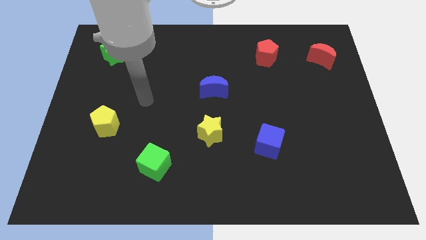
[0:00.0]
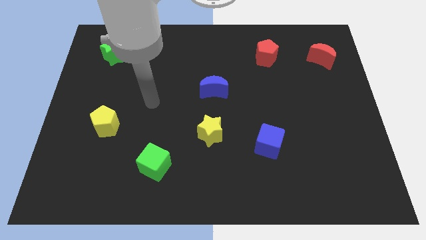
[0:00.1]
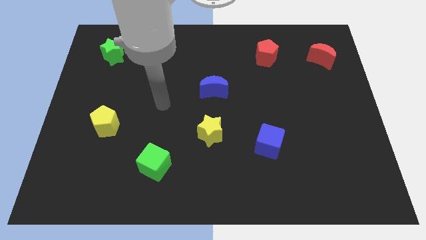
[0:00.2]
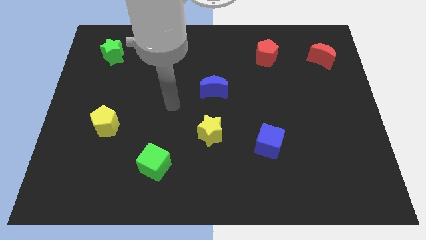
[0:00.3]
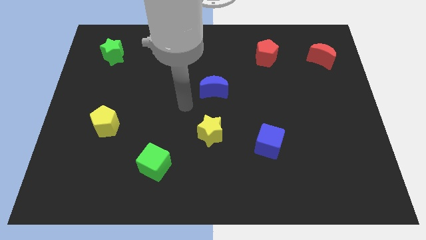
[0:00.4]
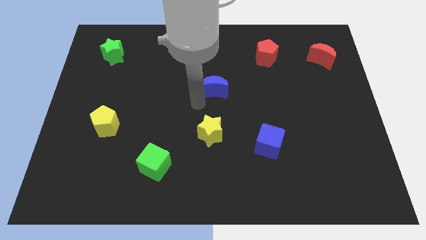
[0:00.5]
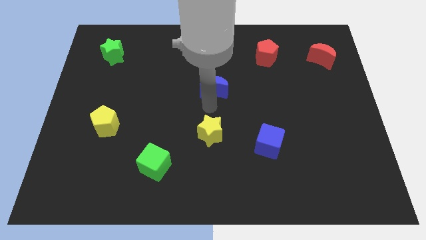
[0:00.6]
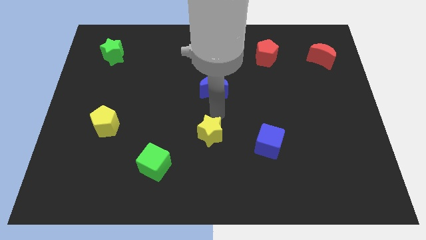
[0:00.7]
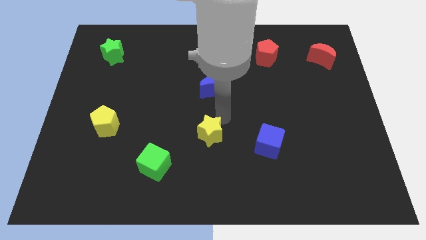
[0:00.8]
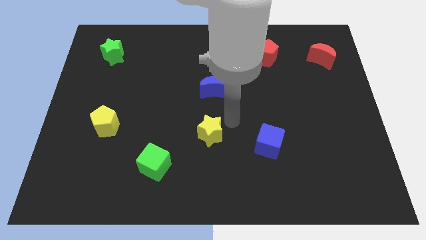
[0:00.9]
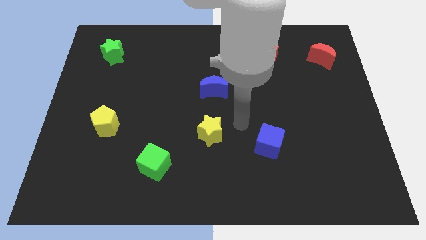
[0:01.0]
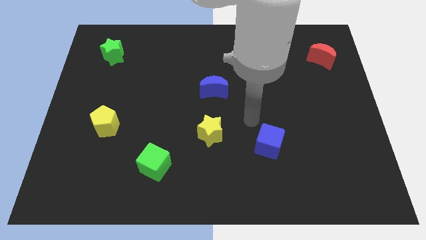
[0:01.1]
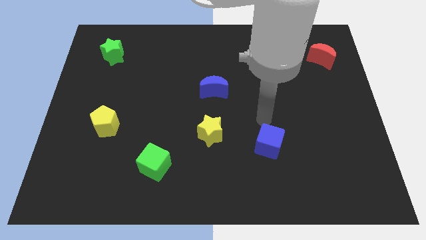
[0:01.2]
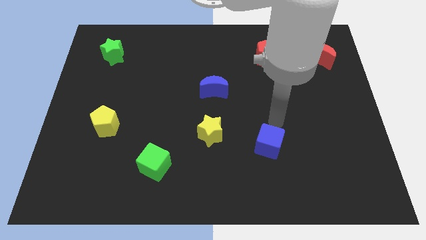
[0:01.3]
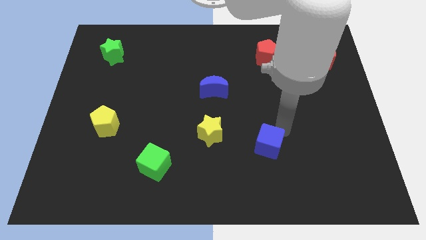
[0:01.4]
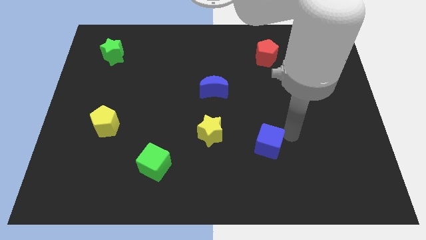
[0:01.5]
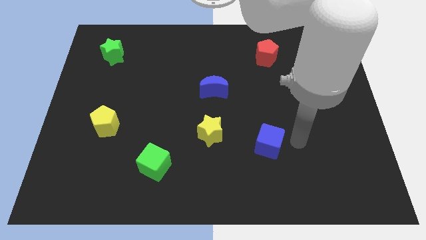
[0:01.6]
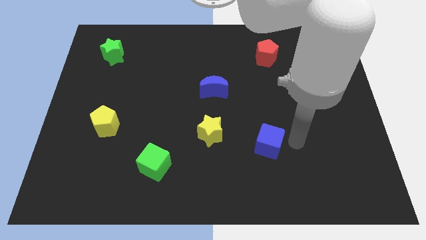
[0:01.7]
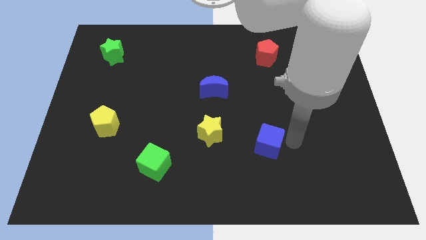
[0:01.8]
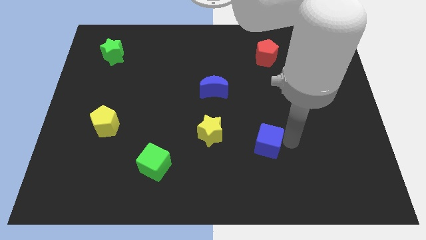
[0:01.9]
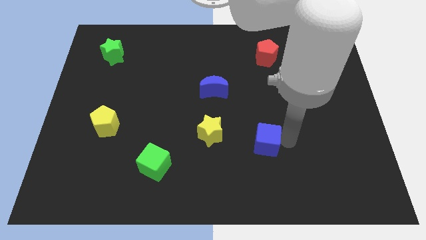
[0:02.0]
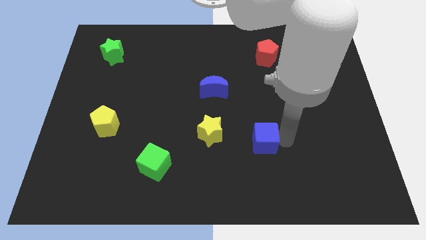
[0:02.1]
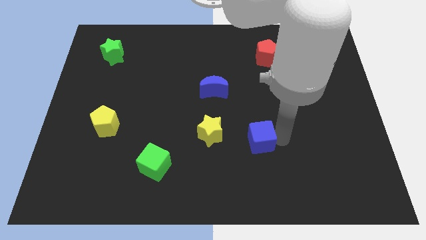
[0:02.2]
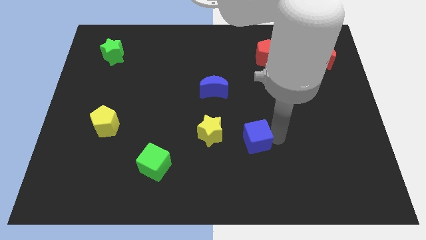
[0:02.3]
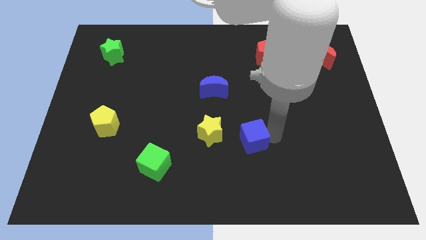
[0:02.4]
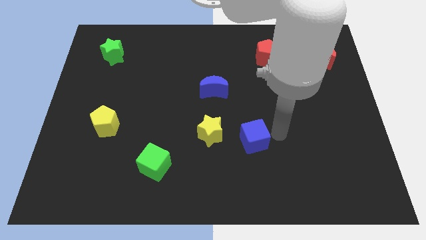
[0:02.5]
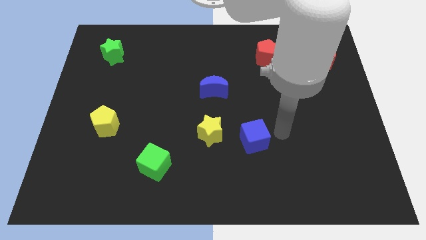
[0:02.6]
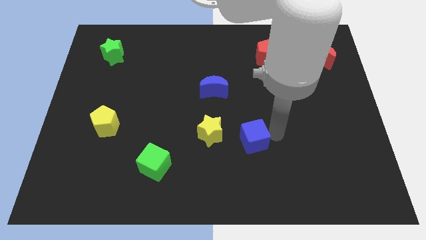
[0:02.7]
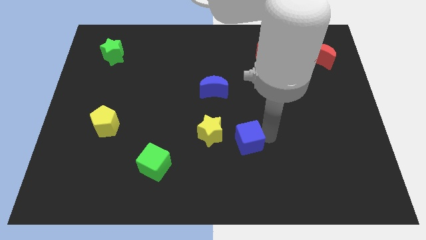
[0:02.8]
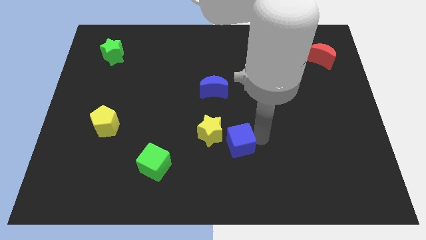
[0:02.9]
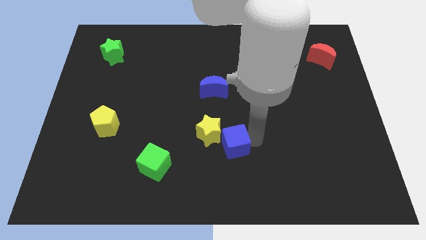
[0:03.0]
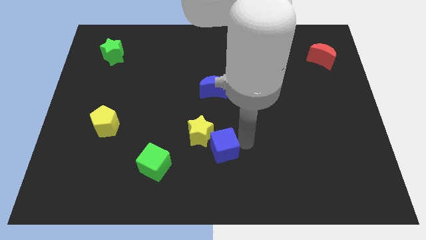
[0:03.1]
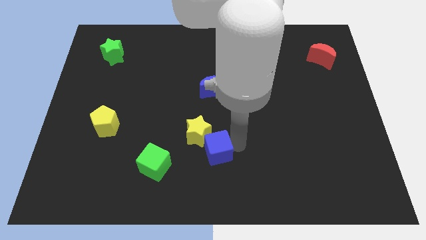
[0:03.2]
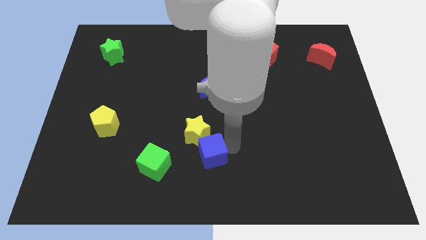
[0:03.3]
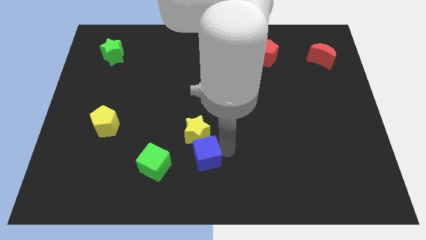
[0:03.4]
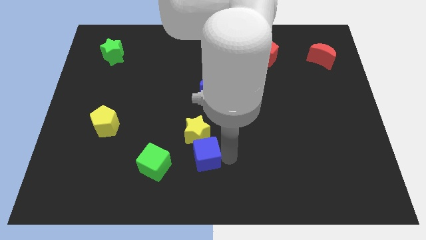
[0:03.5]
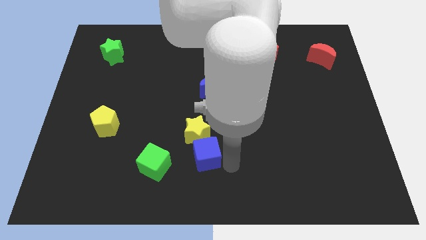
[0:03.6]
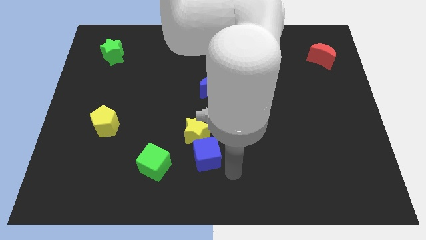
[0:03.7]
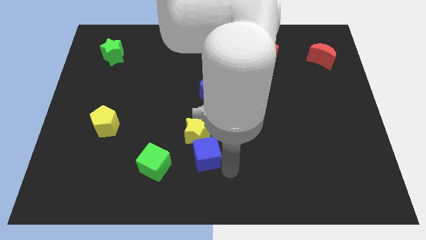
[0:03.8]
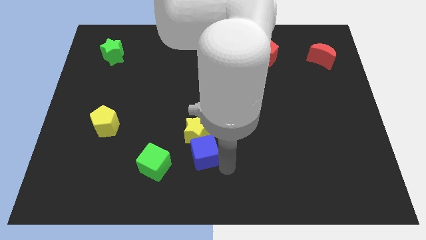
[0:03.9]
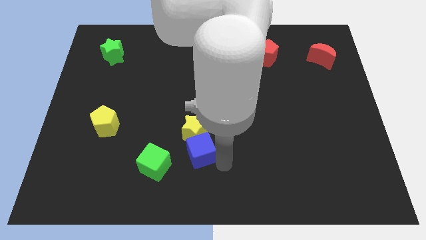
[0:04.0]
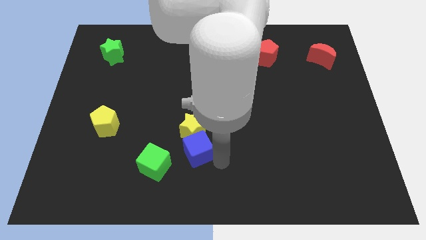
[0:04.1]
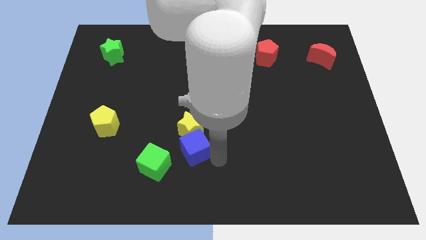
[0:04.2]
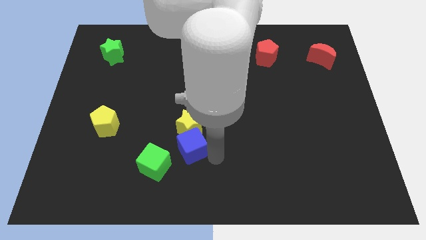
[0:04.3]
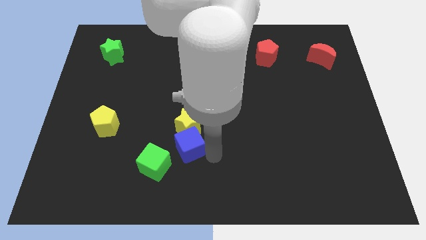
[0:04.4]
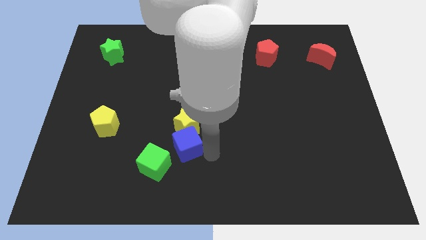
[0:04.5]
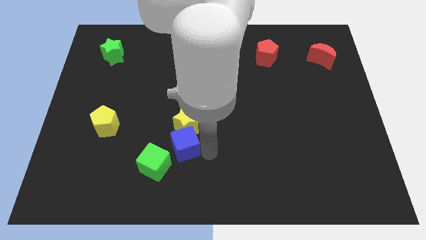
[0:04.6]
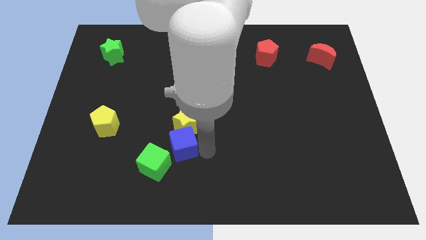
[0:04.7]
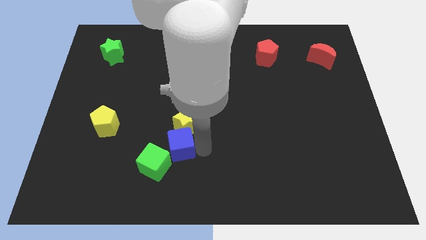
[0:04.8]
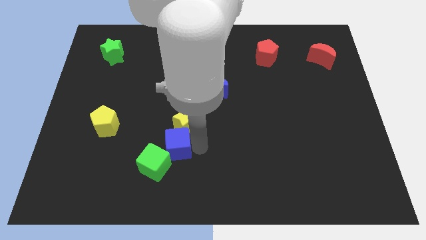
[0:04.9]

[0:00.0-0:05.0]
slide the blue cube to the top of the green cube

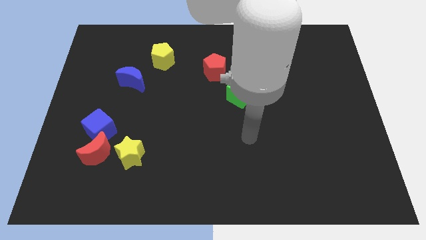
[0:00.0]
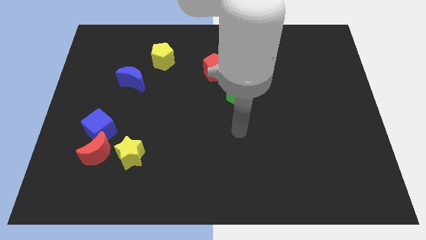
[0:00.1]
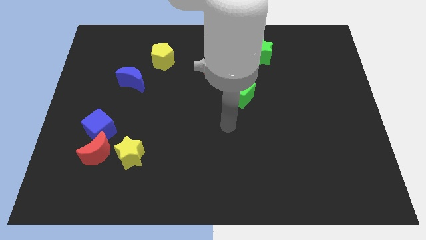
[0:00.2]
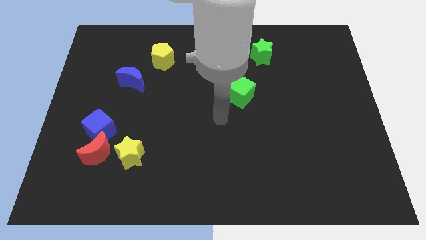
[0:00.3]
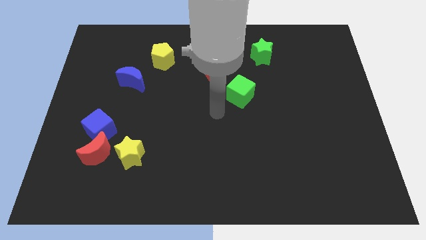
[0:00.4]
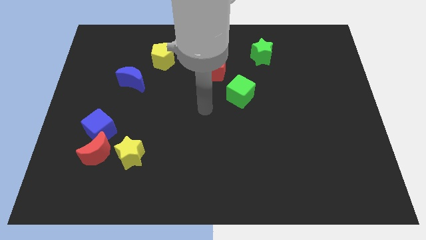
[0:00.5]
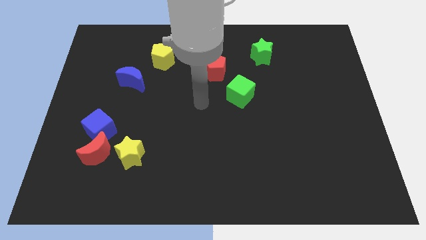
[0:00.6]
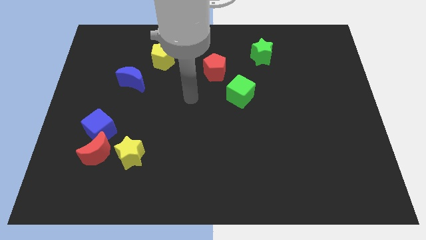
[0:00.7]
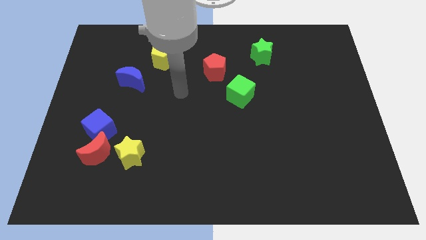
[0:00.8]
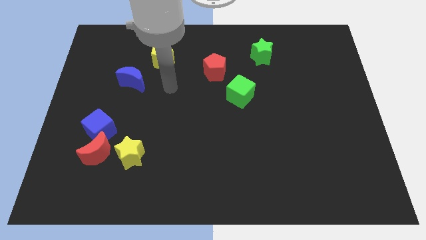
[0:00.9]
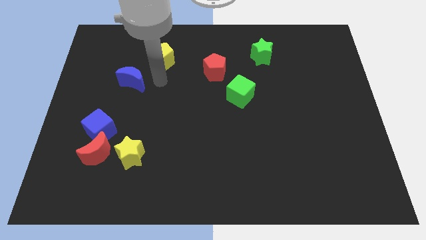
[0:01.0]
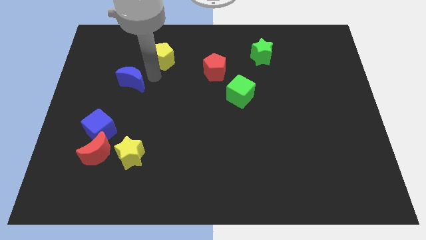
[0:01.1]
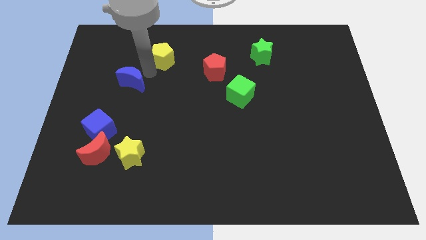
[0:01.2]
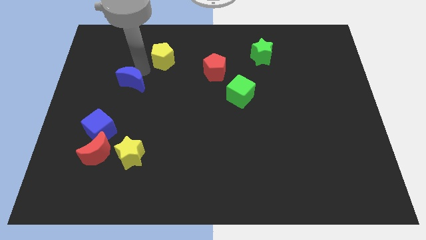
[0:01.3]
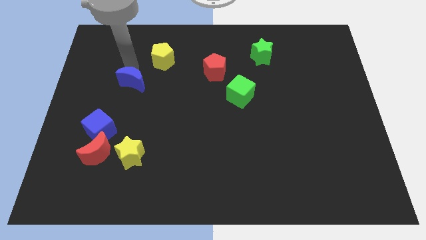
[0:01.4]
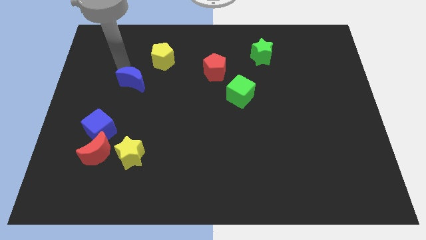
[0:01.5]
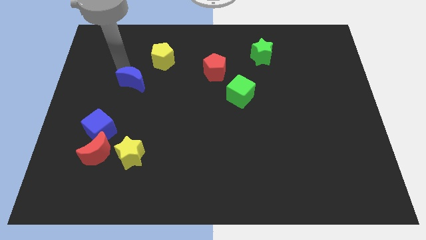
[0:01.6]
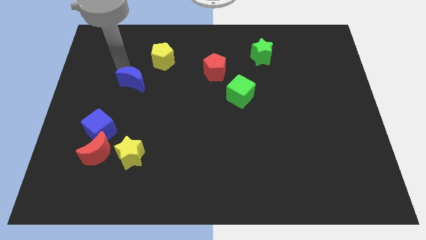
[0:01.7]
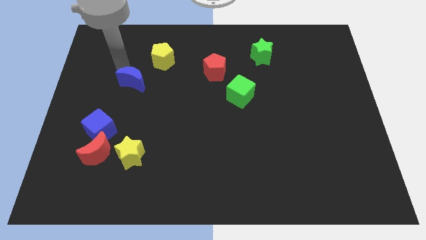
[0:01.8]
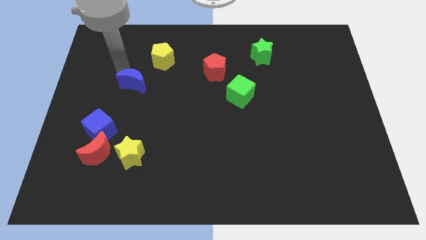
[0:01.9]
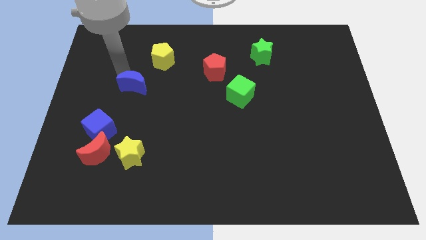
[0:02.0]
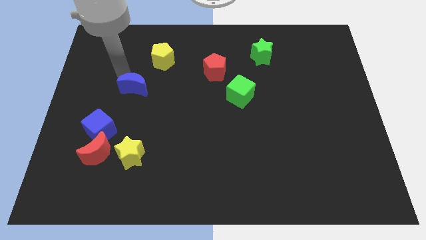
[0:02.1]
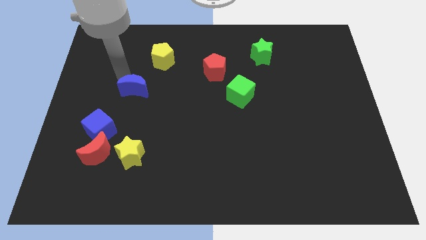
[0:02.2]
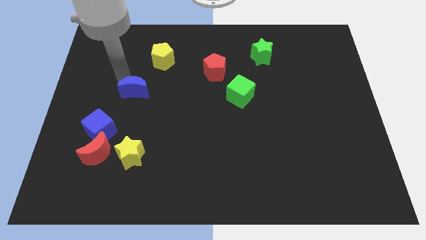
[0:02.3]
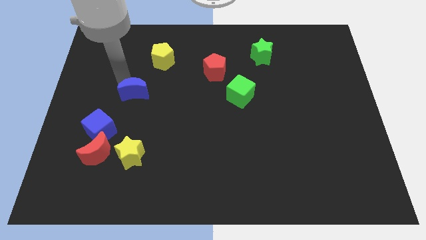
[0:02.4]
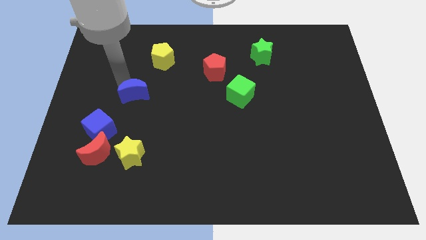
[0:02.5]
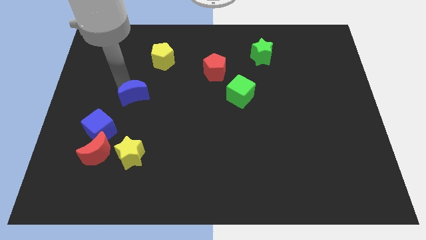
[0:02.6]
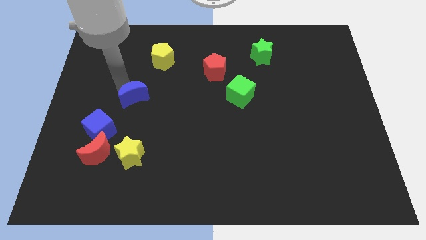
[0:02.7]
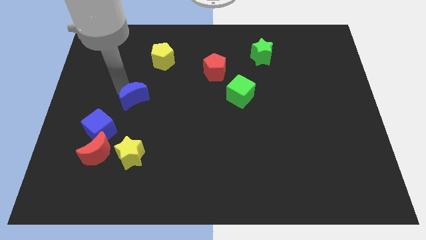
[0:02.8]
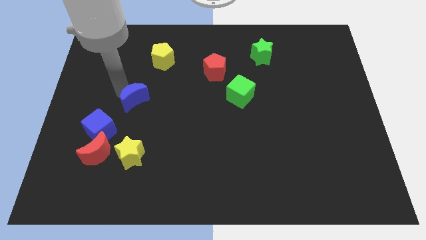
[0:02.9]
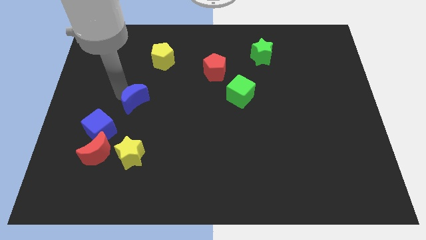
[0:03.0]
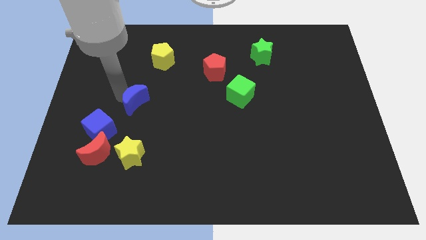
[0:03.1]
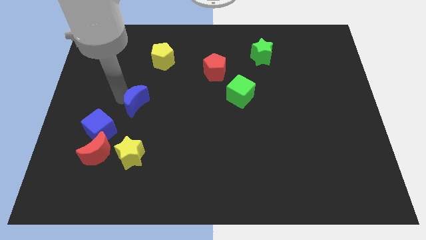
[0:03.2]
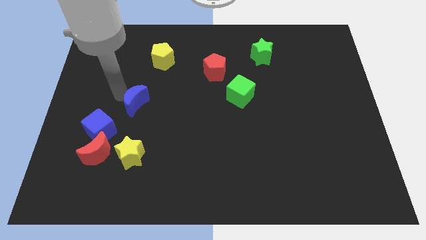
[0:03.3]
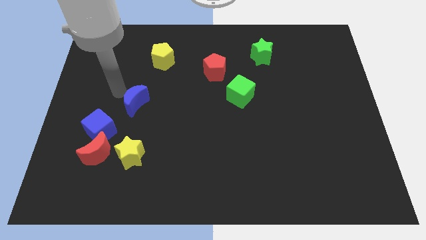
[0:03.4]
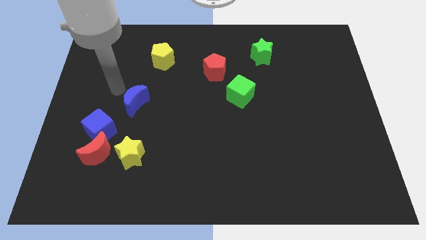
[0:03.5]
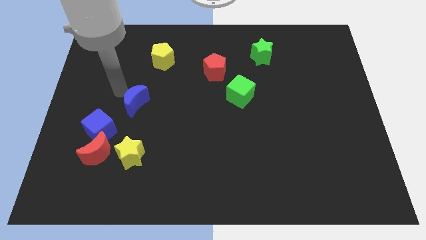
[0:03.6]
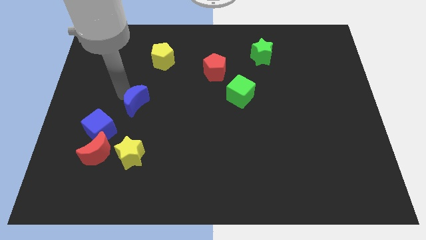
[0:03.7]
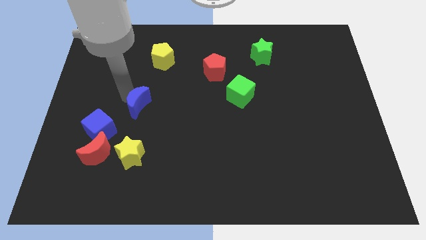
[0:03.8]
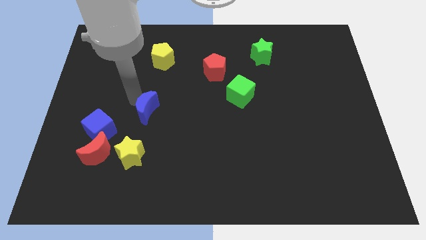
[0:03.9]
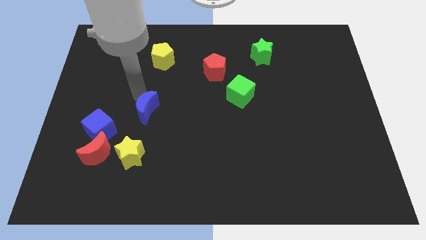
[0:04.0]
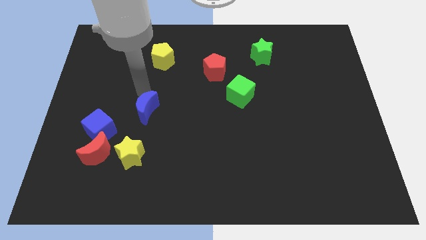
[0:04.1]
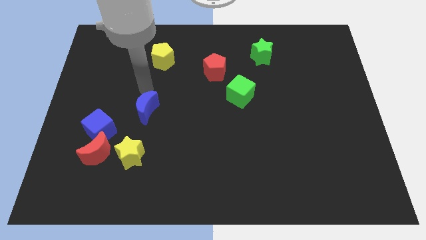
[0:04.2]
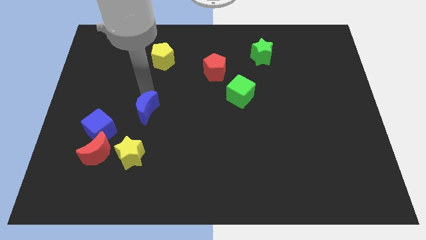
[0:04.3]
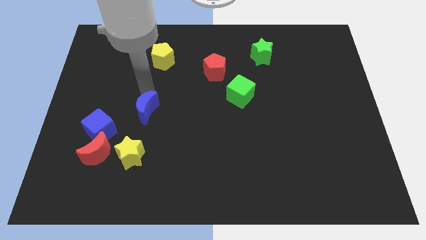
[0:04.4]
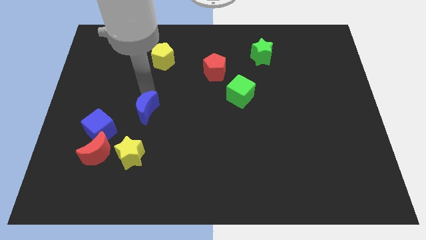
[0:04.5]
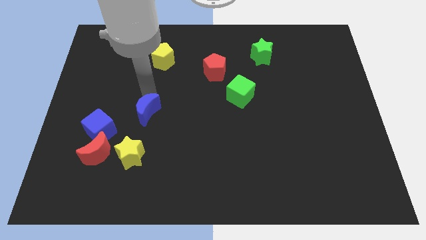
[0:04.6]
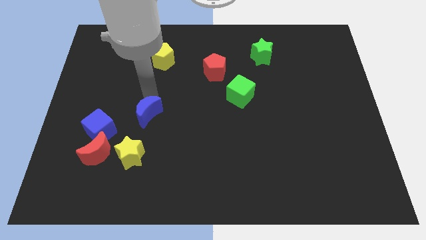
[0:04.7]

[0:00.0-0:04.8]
slide the blue moon right of the blue cube
